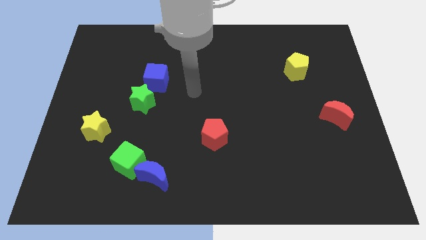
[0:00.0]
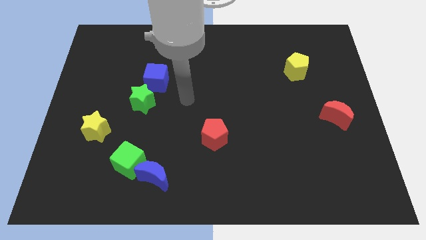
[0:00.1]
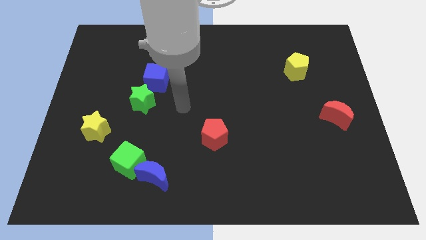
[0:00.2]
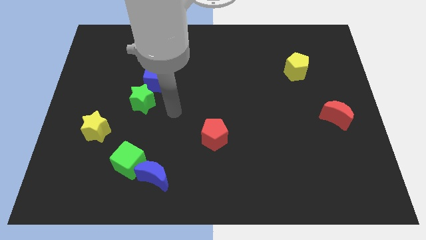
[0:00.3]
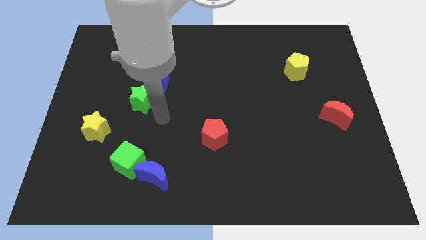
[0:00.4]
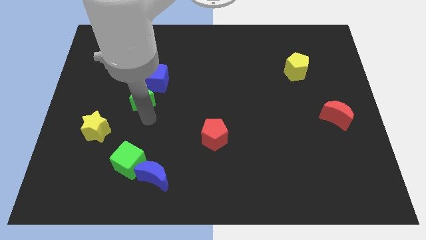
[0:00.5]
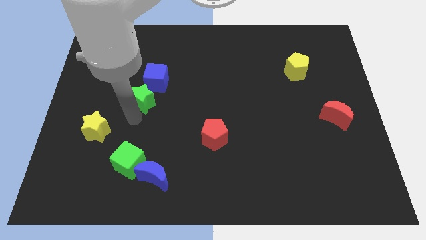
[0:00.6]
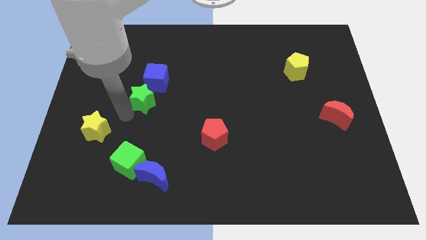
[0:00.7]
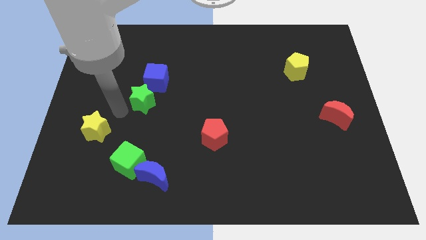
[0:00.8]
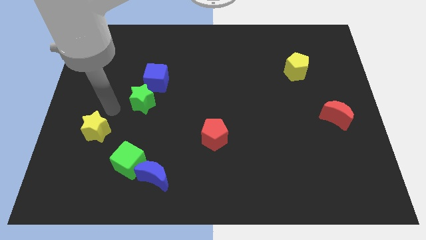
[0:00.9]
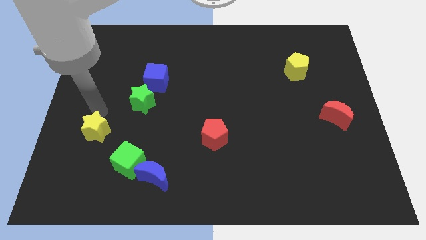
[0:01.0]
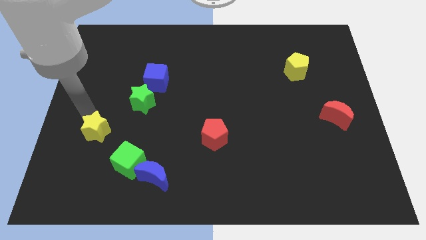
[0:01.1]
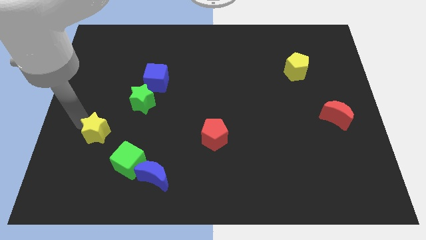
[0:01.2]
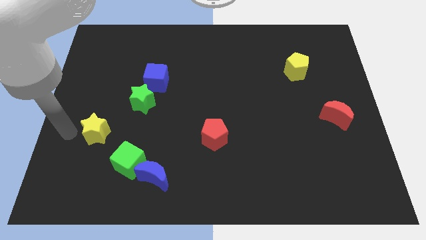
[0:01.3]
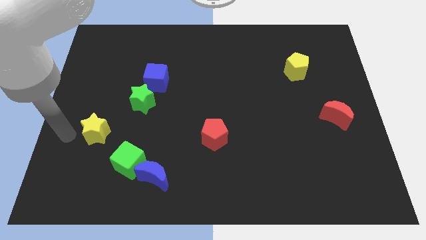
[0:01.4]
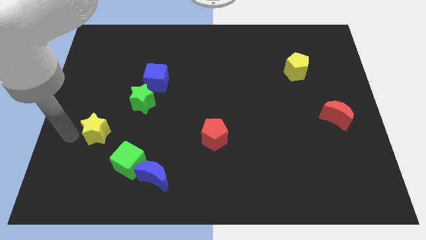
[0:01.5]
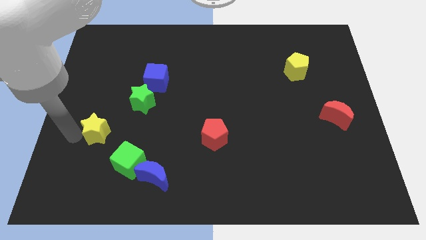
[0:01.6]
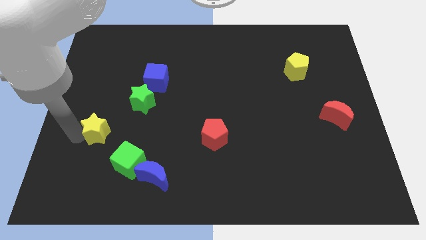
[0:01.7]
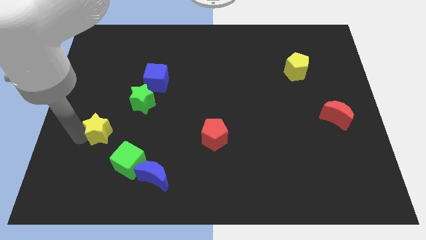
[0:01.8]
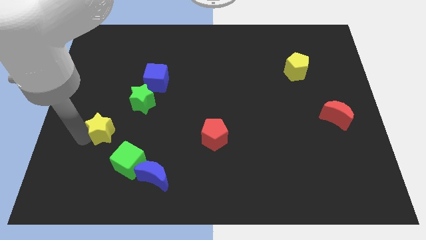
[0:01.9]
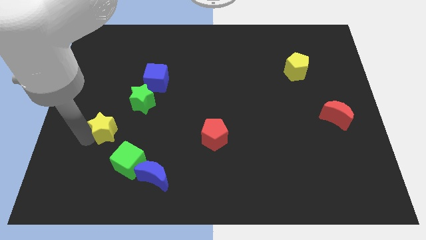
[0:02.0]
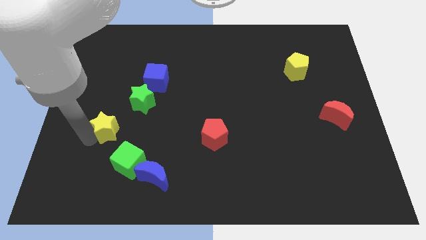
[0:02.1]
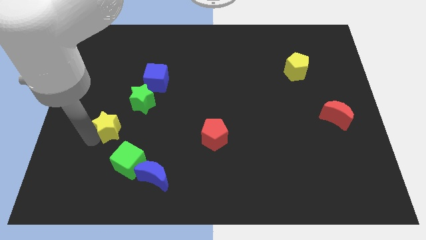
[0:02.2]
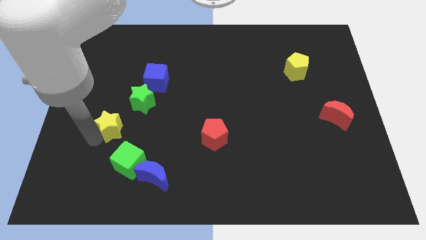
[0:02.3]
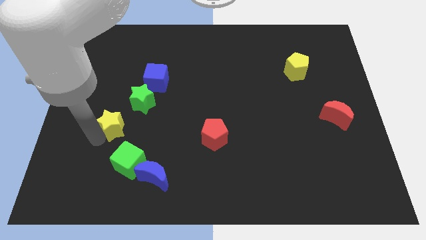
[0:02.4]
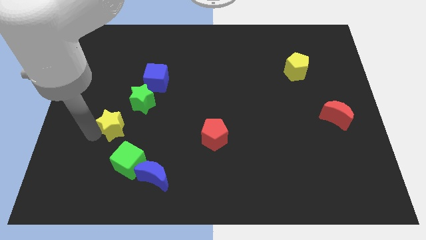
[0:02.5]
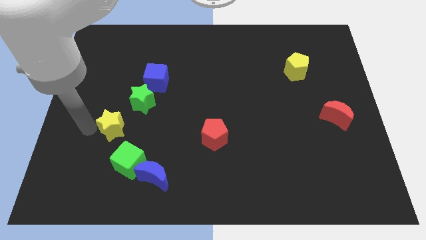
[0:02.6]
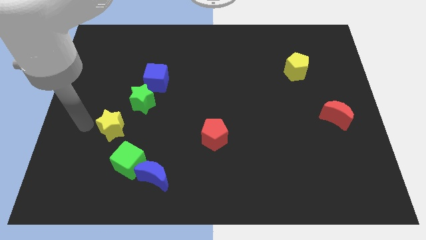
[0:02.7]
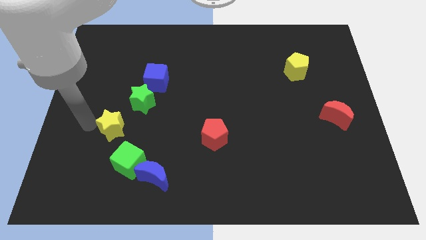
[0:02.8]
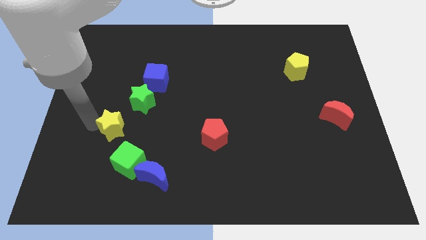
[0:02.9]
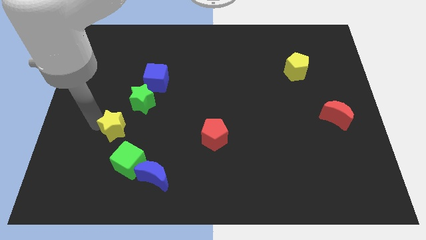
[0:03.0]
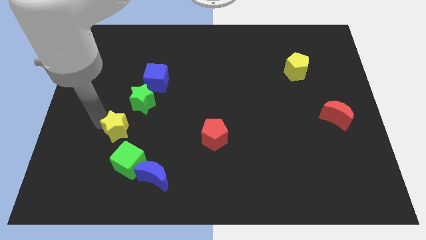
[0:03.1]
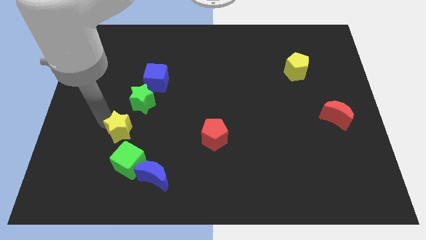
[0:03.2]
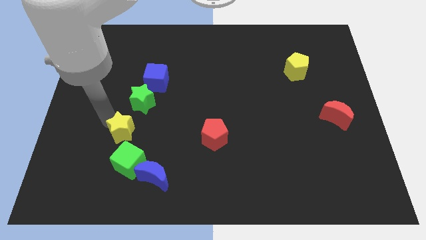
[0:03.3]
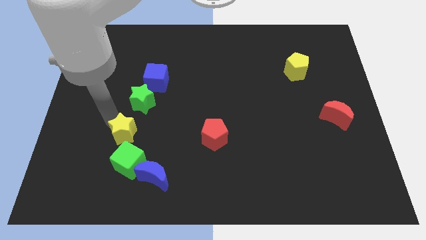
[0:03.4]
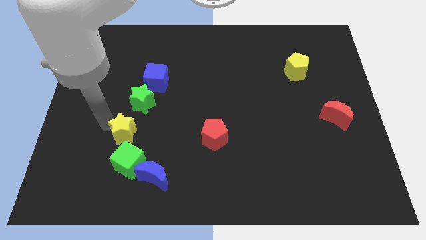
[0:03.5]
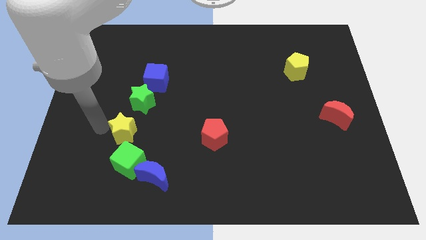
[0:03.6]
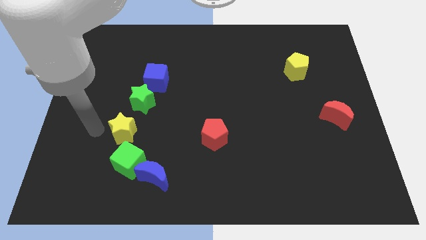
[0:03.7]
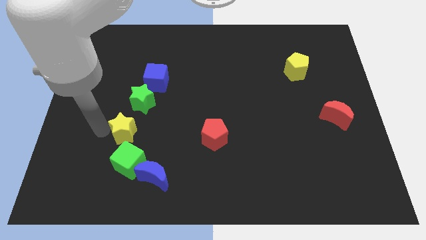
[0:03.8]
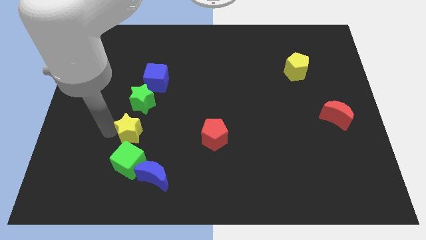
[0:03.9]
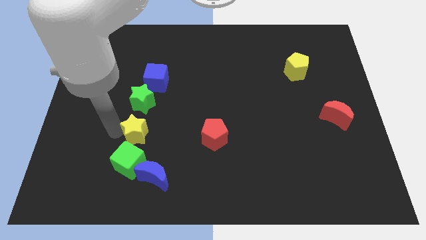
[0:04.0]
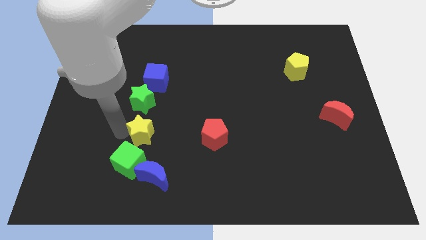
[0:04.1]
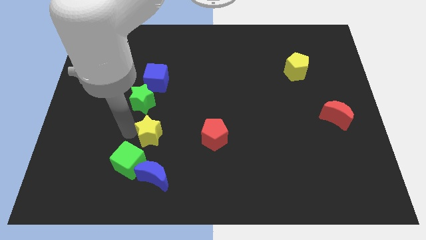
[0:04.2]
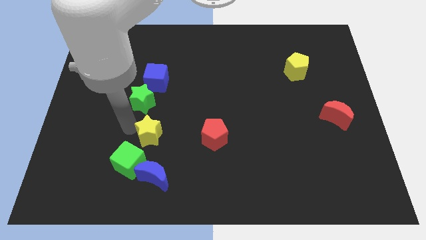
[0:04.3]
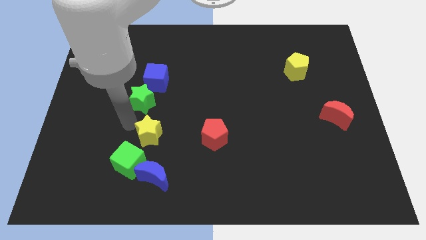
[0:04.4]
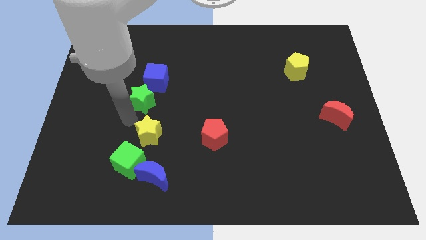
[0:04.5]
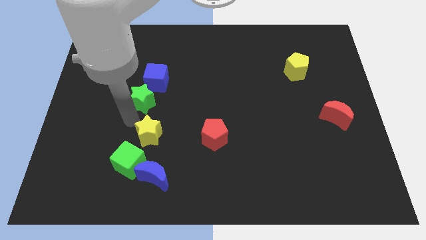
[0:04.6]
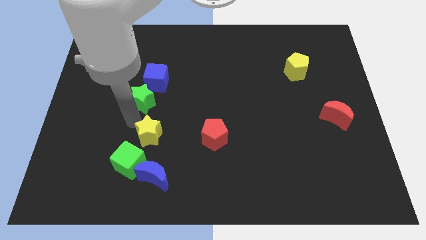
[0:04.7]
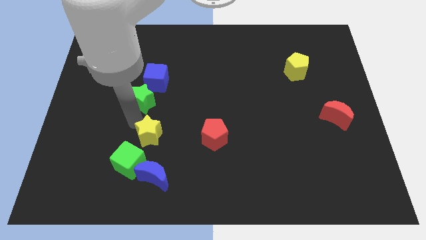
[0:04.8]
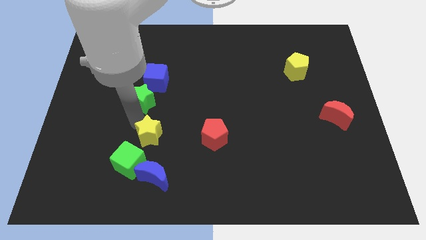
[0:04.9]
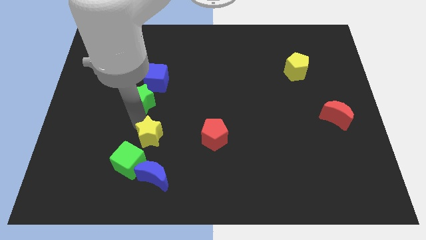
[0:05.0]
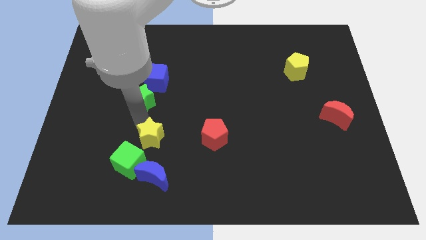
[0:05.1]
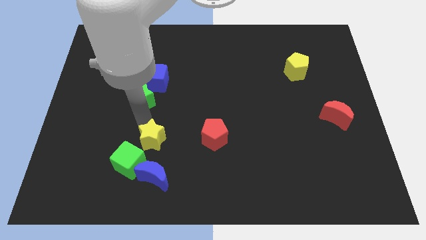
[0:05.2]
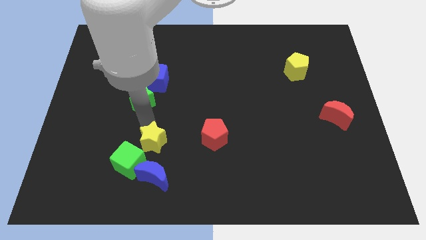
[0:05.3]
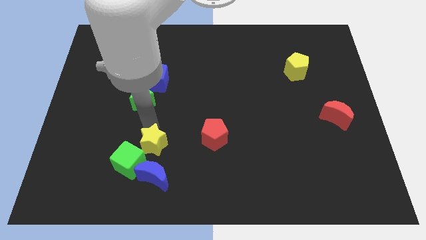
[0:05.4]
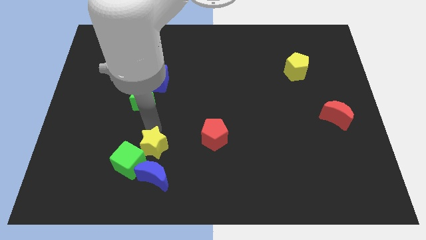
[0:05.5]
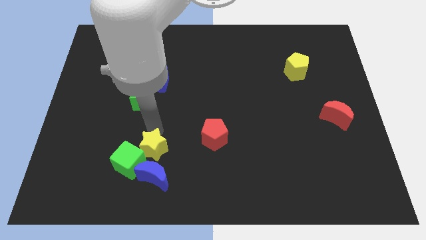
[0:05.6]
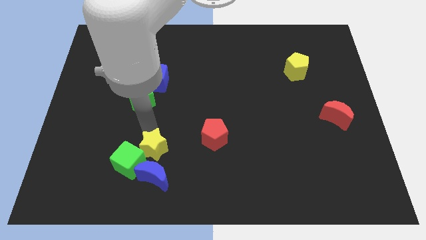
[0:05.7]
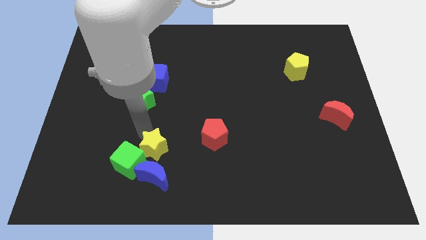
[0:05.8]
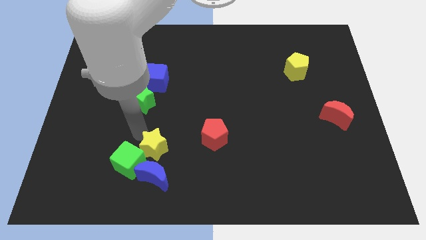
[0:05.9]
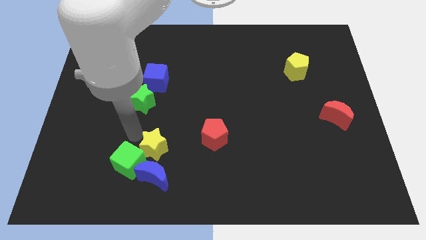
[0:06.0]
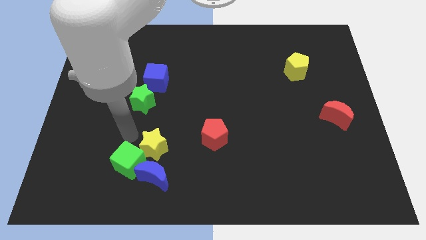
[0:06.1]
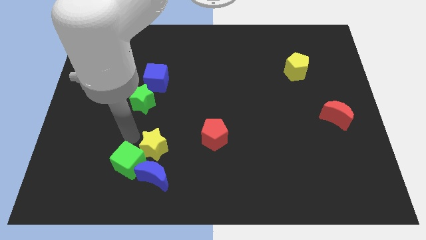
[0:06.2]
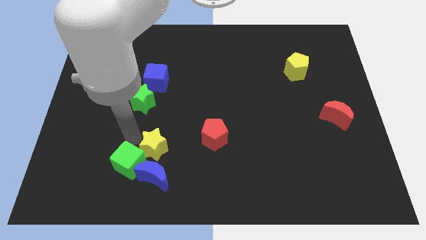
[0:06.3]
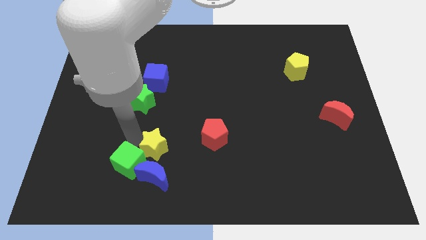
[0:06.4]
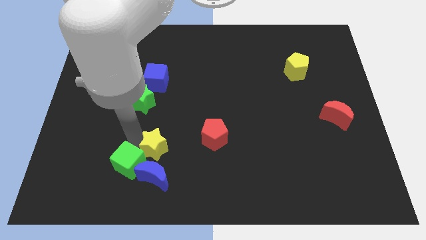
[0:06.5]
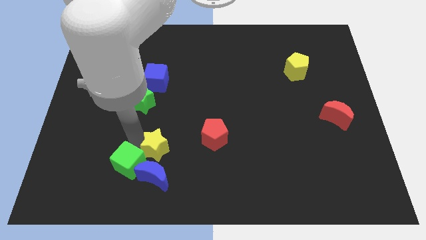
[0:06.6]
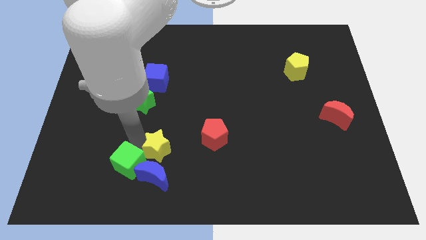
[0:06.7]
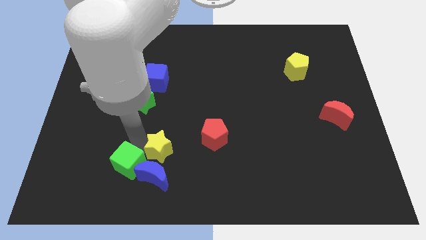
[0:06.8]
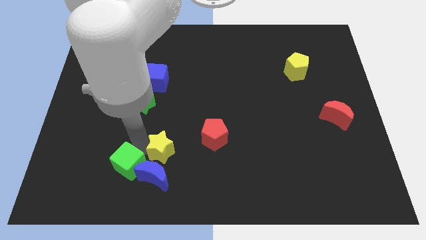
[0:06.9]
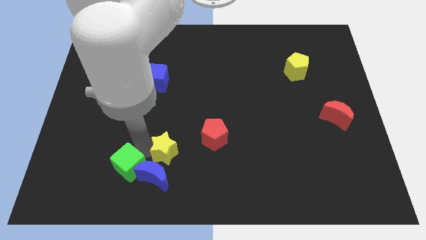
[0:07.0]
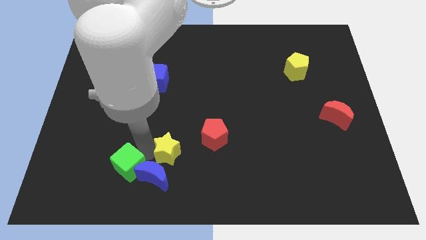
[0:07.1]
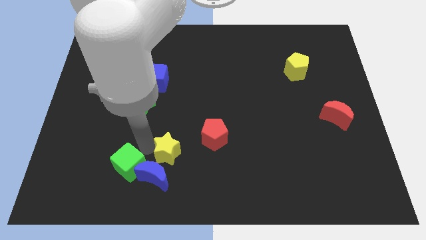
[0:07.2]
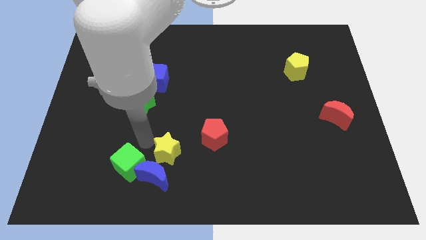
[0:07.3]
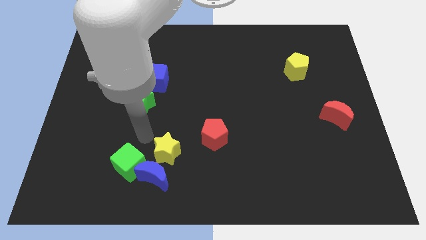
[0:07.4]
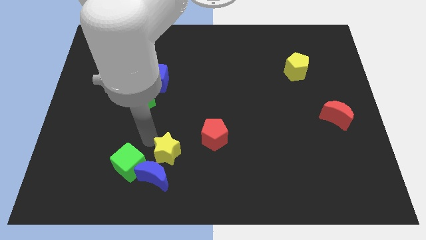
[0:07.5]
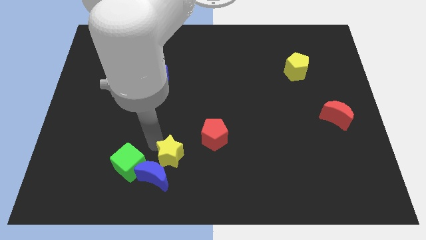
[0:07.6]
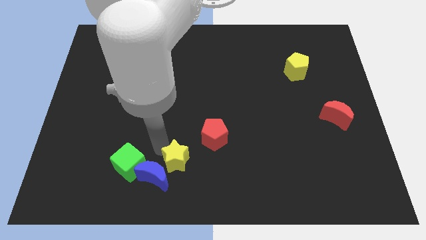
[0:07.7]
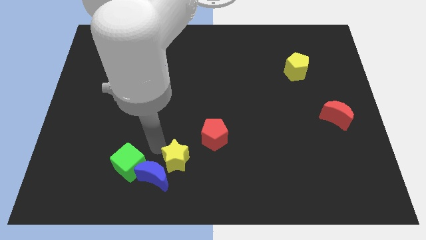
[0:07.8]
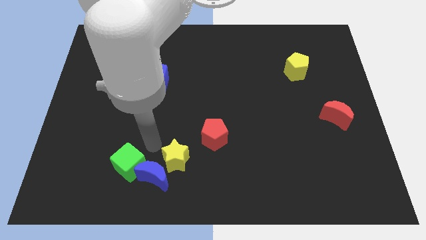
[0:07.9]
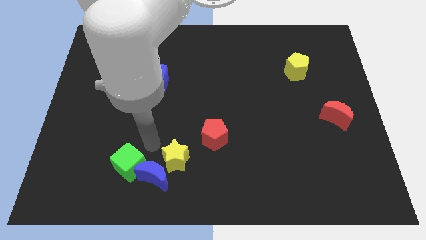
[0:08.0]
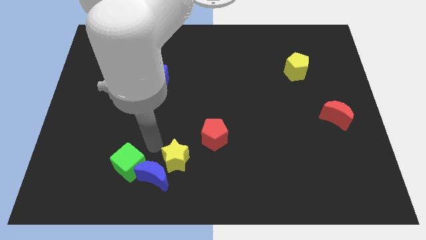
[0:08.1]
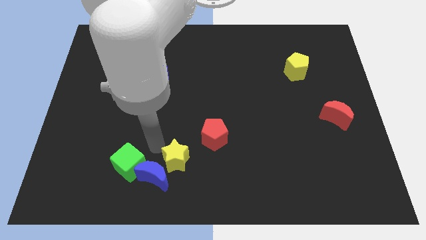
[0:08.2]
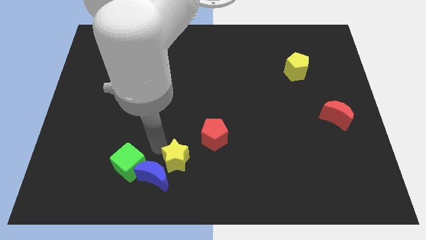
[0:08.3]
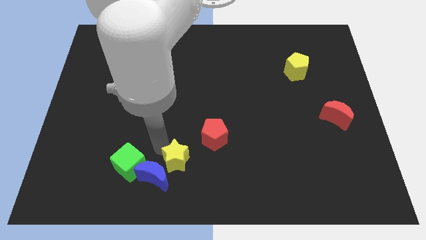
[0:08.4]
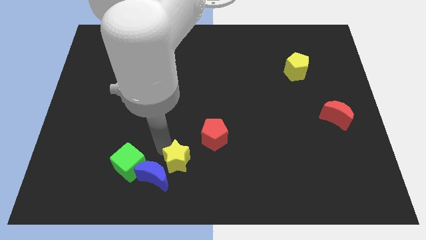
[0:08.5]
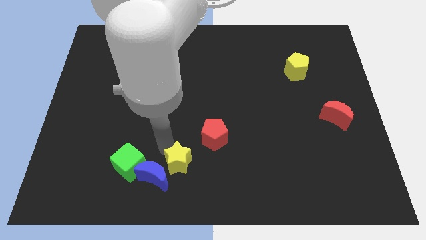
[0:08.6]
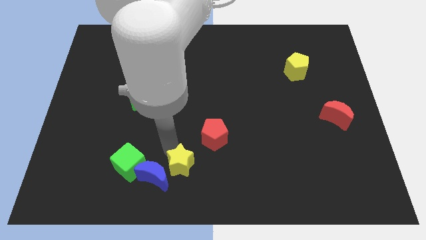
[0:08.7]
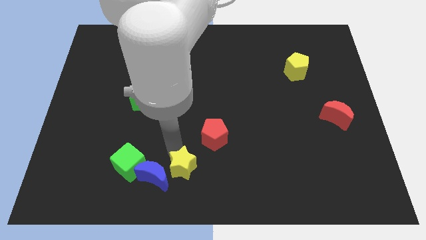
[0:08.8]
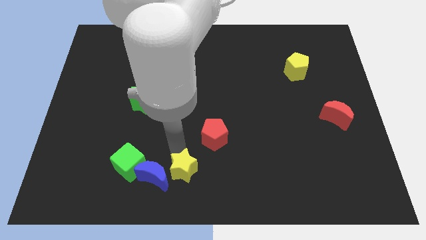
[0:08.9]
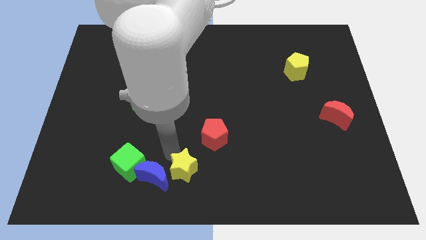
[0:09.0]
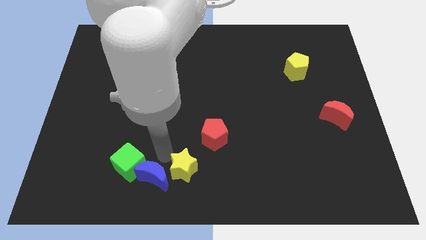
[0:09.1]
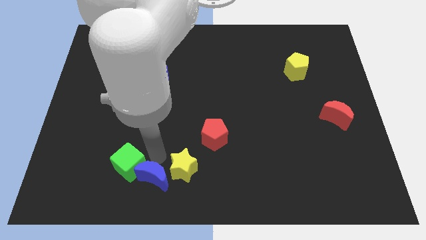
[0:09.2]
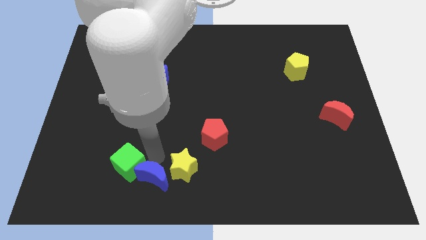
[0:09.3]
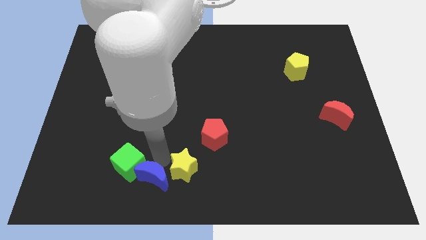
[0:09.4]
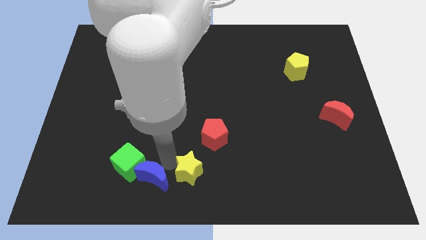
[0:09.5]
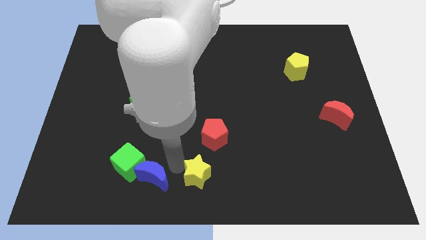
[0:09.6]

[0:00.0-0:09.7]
move the yellow star below the red pentagon
